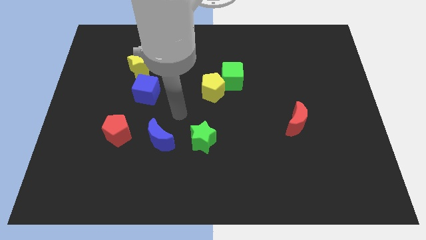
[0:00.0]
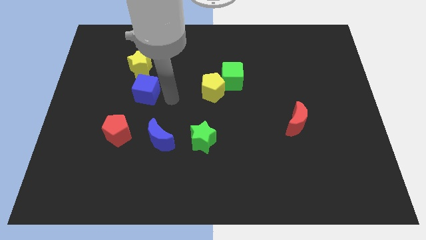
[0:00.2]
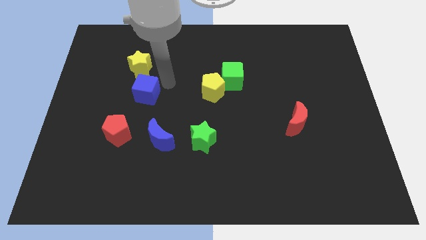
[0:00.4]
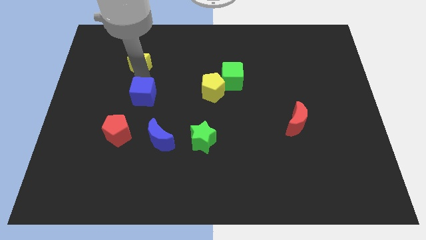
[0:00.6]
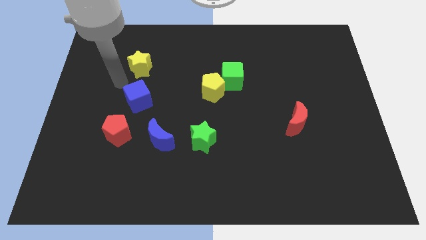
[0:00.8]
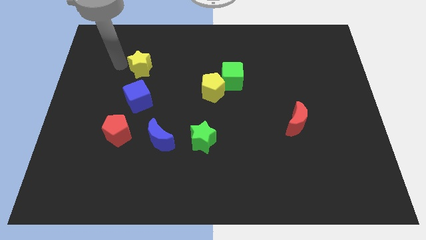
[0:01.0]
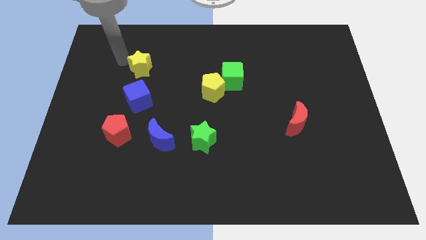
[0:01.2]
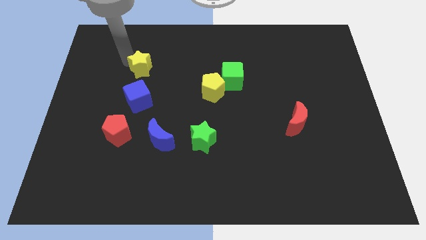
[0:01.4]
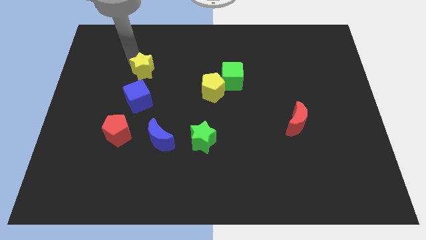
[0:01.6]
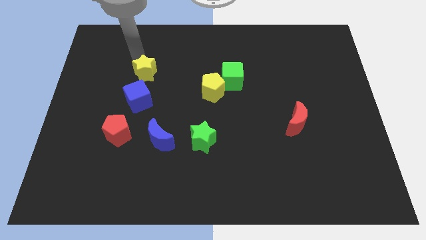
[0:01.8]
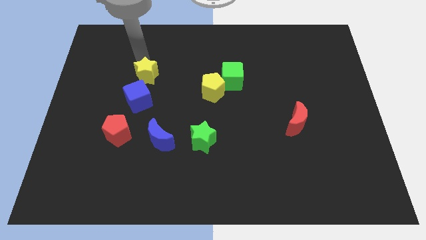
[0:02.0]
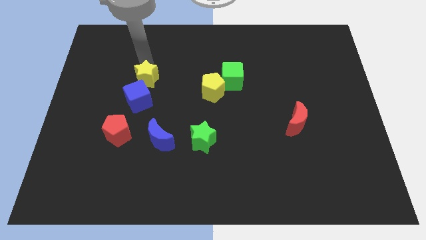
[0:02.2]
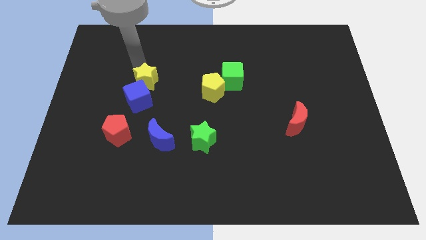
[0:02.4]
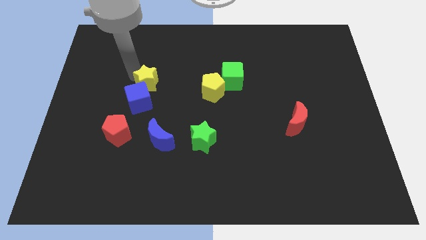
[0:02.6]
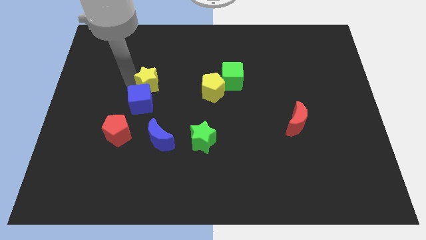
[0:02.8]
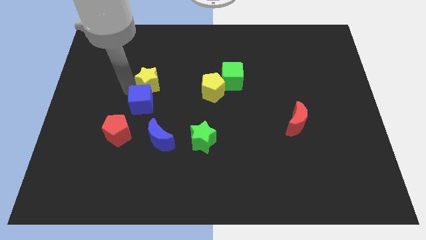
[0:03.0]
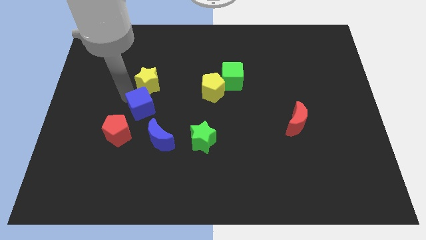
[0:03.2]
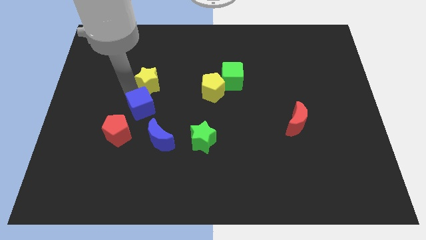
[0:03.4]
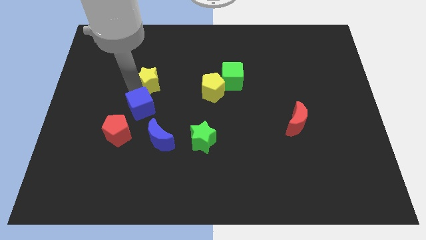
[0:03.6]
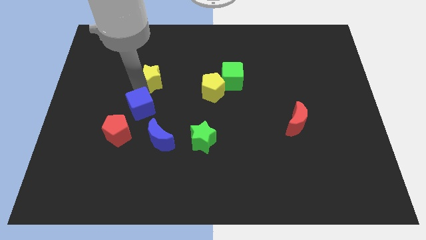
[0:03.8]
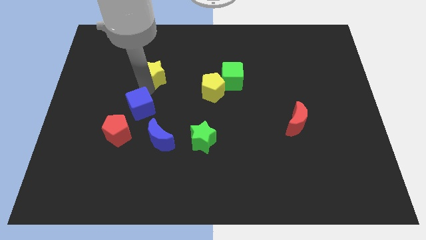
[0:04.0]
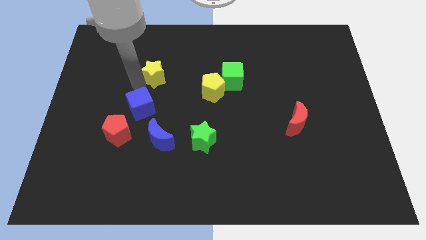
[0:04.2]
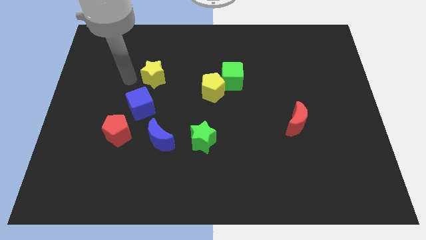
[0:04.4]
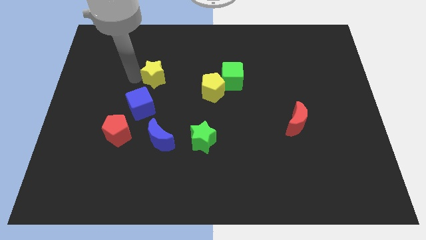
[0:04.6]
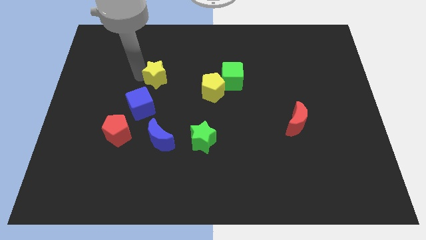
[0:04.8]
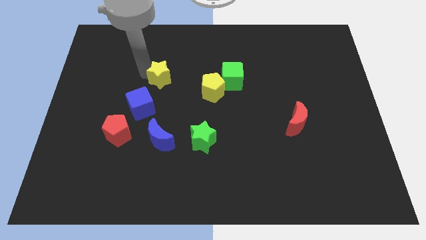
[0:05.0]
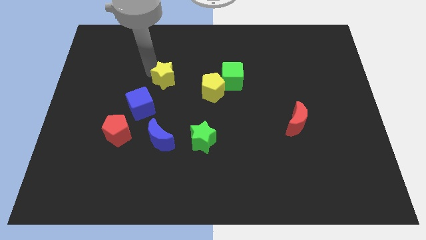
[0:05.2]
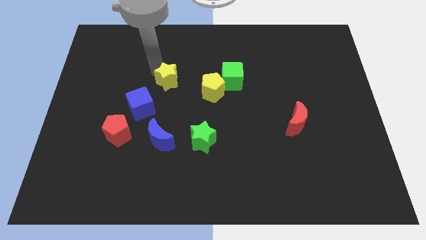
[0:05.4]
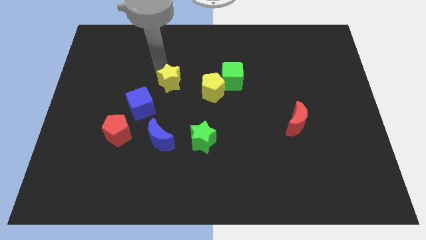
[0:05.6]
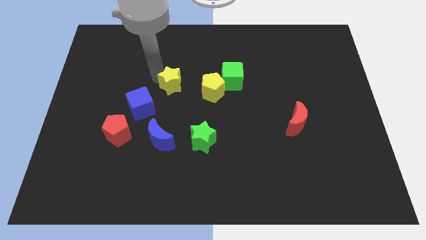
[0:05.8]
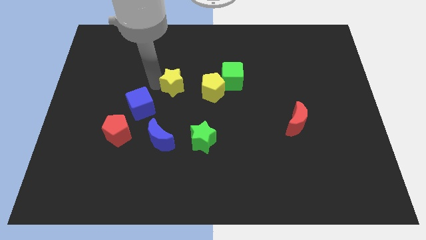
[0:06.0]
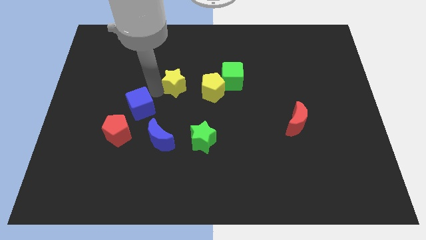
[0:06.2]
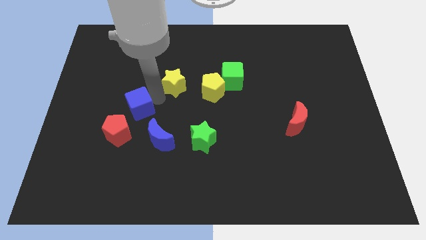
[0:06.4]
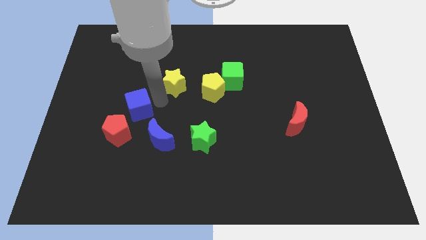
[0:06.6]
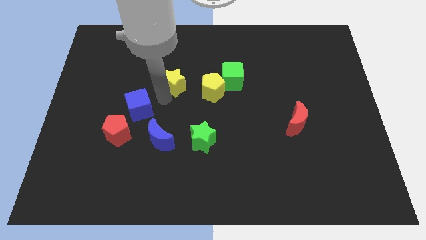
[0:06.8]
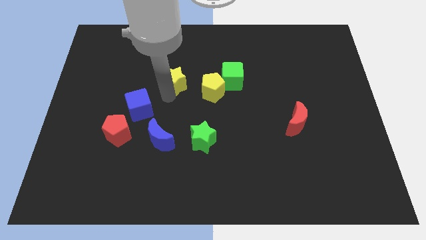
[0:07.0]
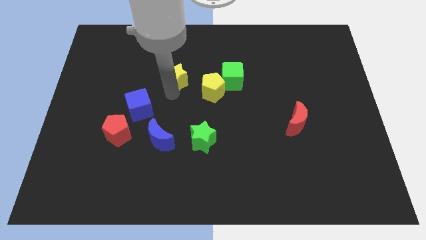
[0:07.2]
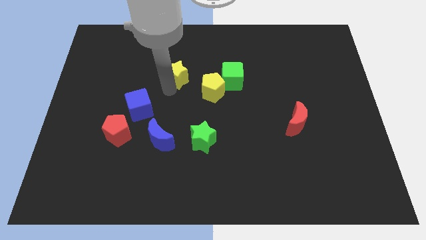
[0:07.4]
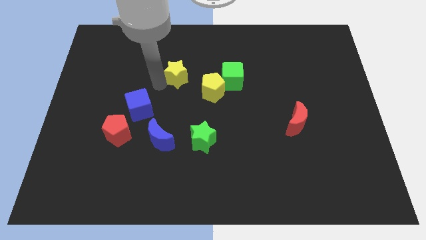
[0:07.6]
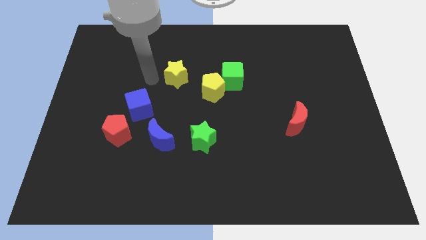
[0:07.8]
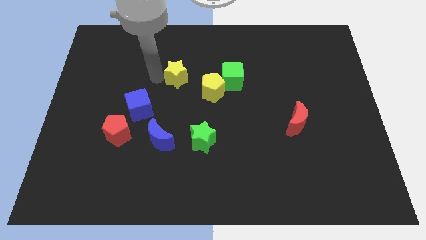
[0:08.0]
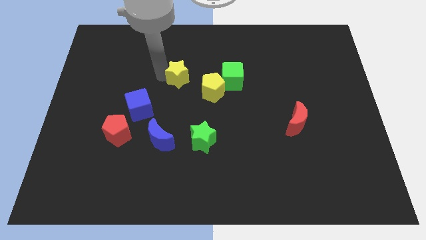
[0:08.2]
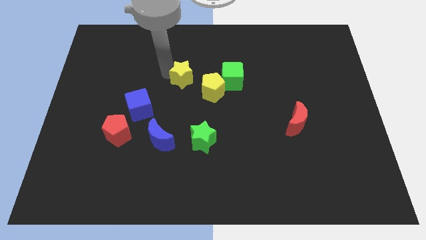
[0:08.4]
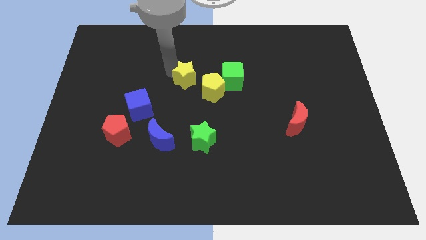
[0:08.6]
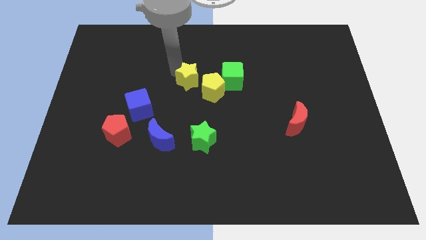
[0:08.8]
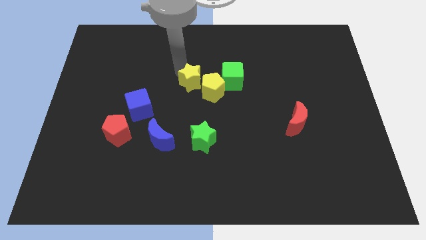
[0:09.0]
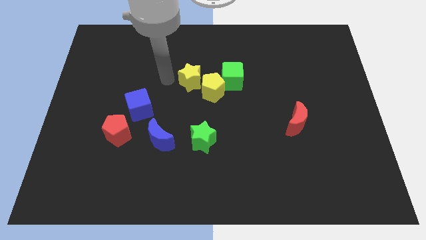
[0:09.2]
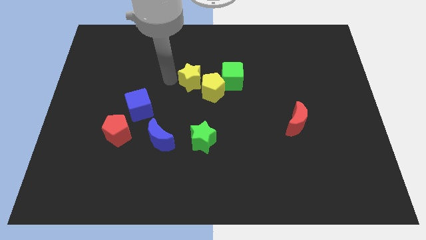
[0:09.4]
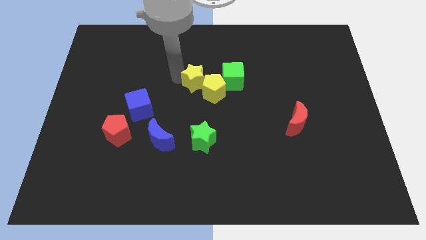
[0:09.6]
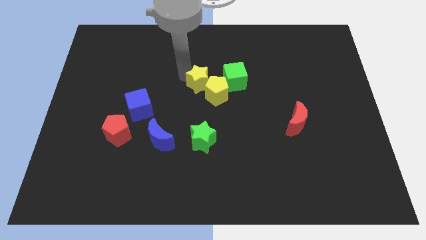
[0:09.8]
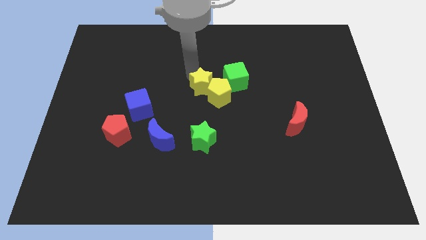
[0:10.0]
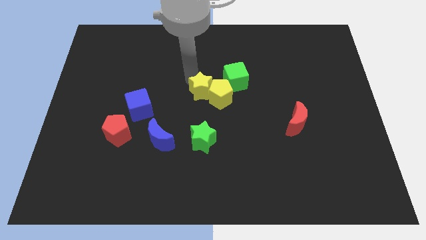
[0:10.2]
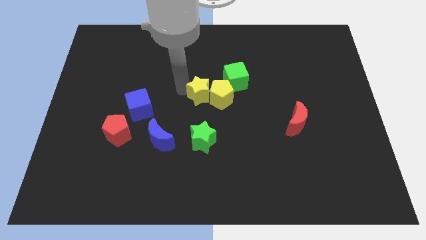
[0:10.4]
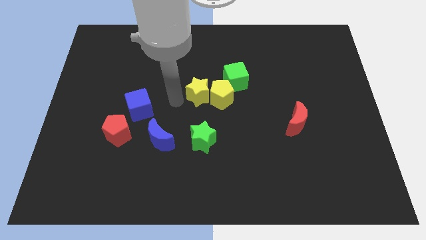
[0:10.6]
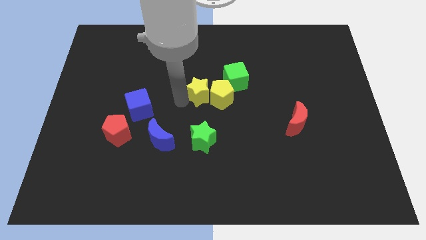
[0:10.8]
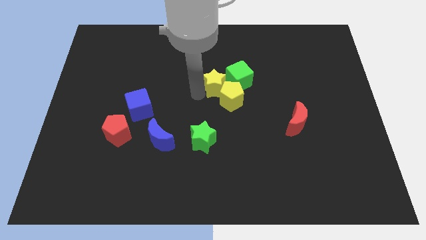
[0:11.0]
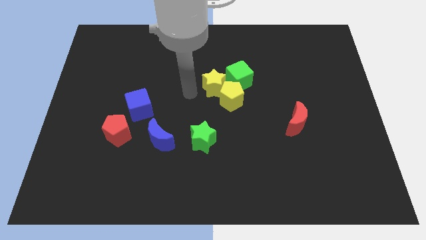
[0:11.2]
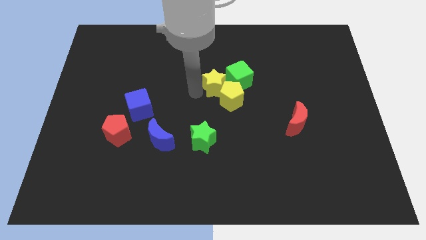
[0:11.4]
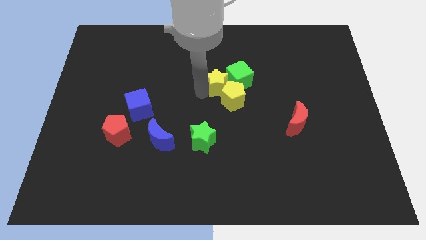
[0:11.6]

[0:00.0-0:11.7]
push the yellow star next to the green cube

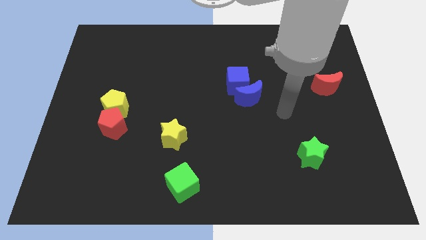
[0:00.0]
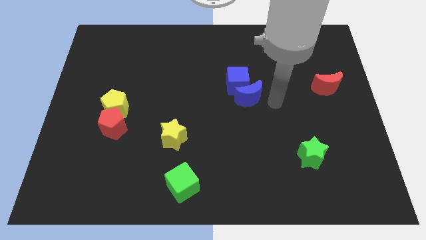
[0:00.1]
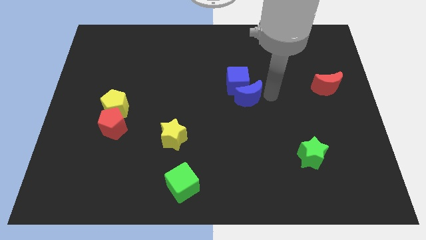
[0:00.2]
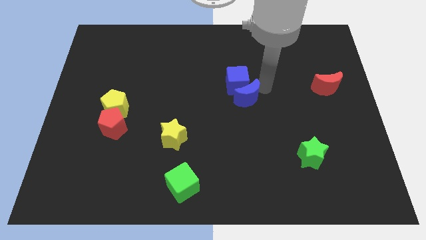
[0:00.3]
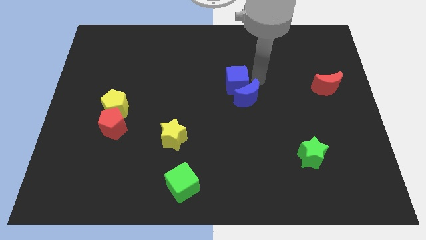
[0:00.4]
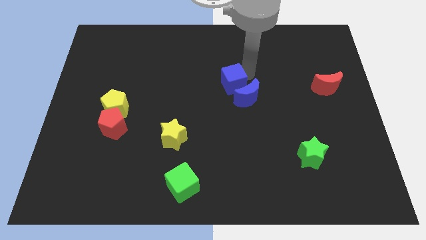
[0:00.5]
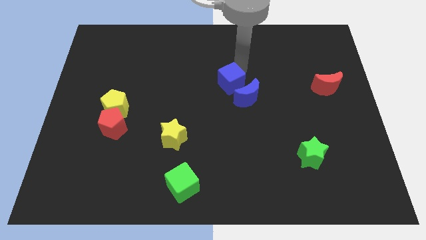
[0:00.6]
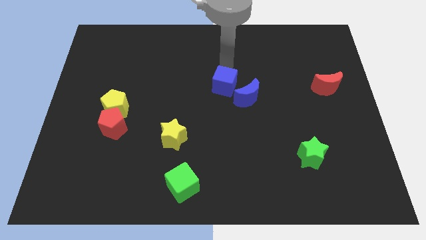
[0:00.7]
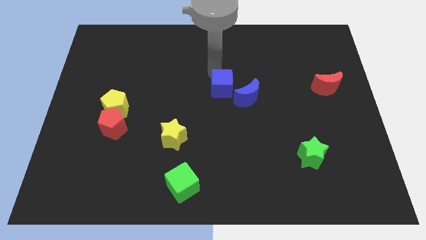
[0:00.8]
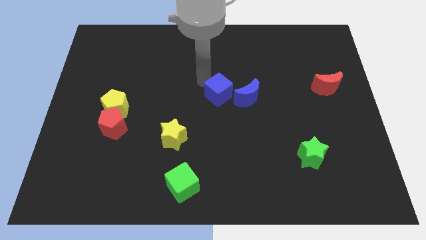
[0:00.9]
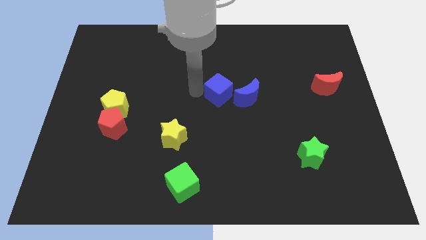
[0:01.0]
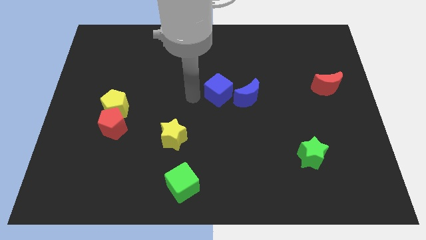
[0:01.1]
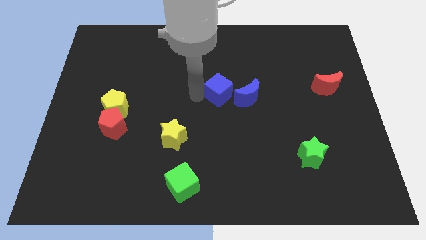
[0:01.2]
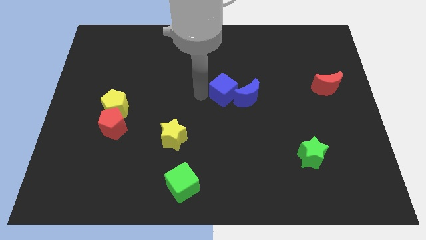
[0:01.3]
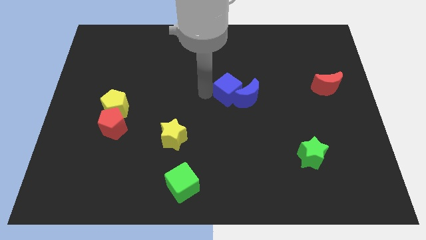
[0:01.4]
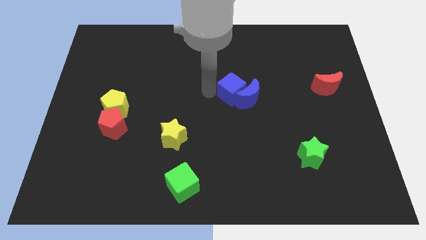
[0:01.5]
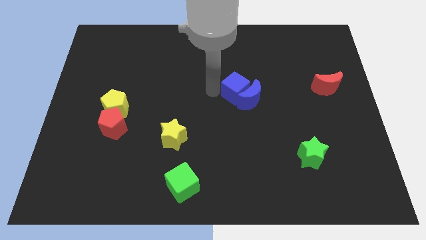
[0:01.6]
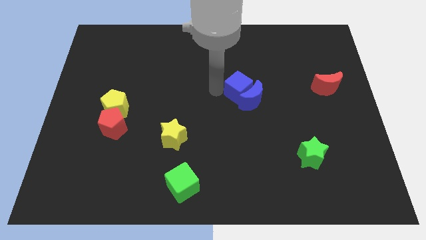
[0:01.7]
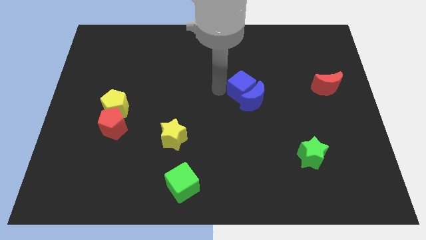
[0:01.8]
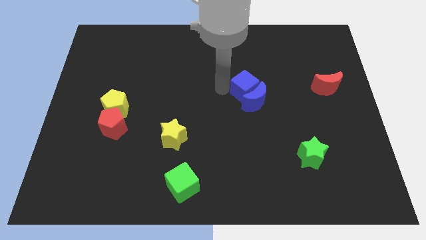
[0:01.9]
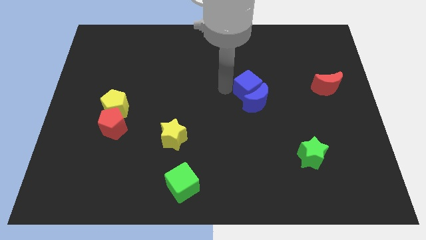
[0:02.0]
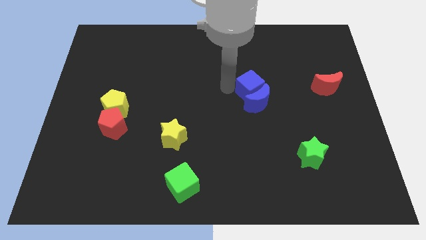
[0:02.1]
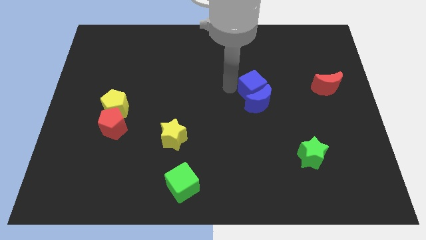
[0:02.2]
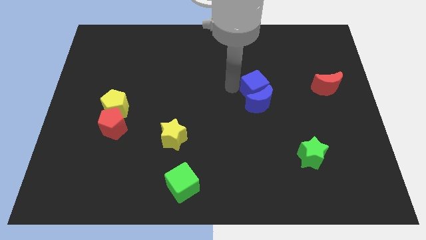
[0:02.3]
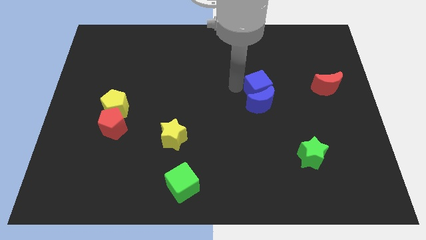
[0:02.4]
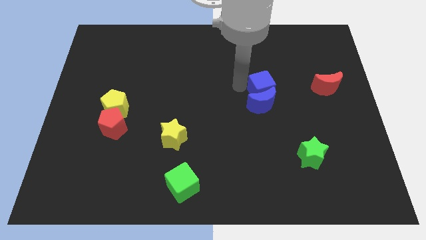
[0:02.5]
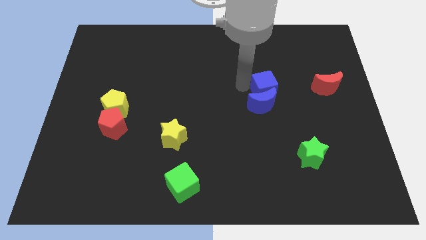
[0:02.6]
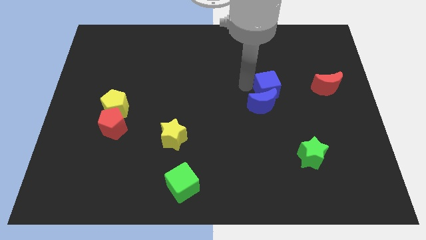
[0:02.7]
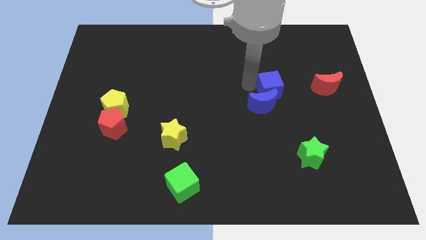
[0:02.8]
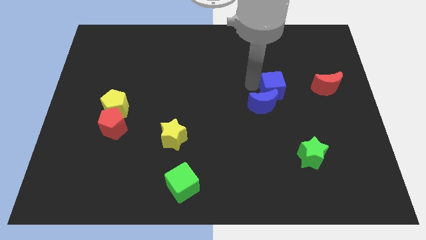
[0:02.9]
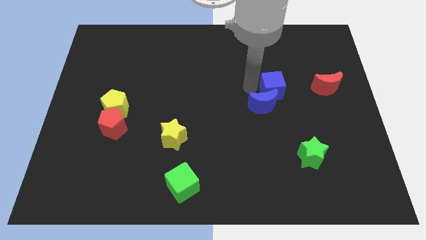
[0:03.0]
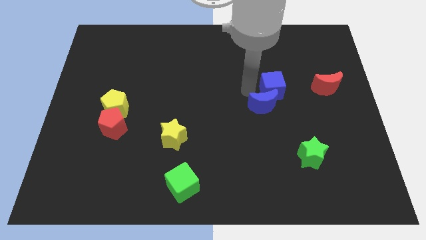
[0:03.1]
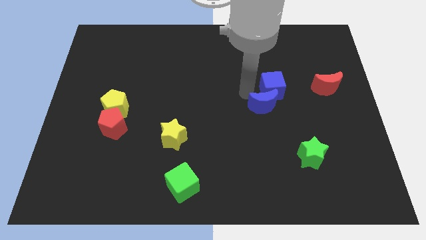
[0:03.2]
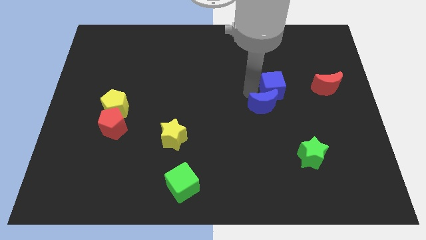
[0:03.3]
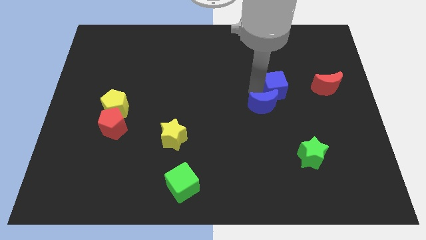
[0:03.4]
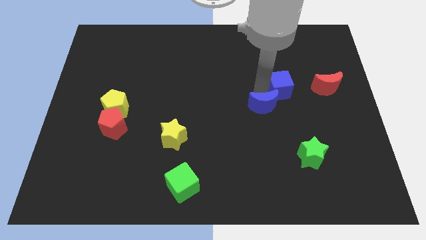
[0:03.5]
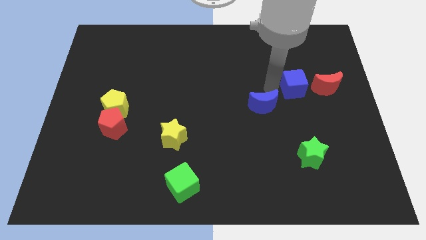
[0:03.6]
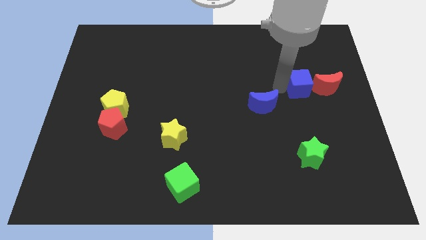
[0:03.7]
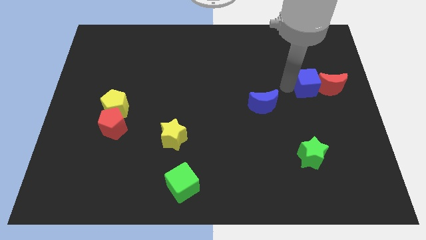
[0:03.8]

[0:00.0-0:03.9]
push the blue cube close to the red moon
